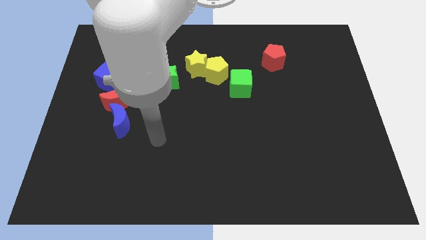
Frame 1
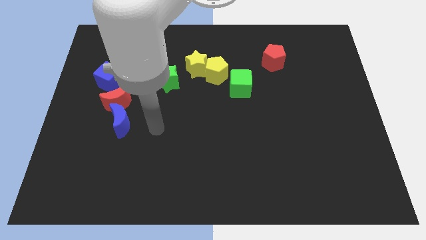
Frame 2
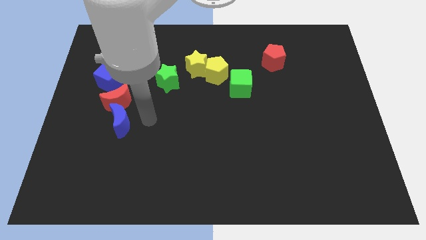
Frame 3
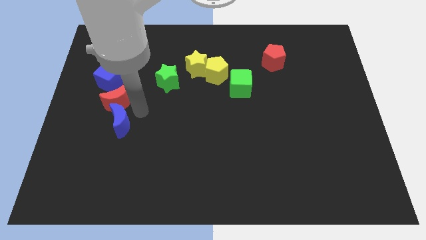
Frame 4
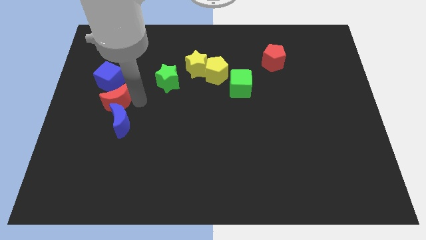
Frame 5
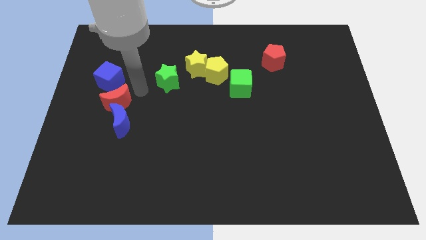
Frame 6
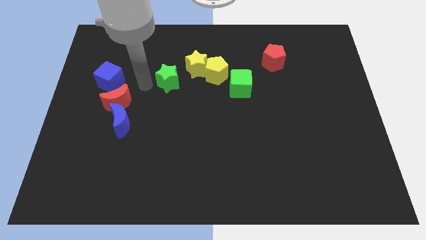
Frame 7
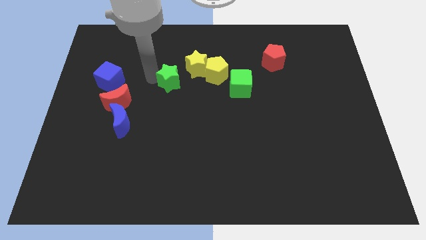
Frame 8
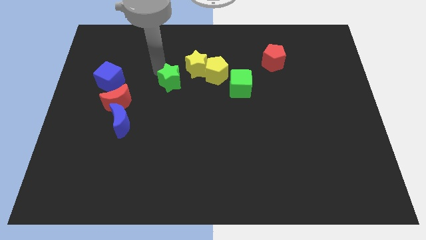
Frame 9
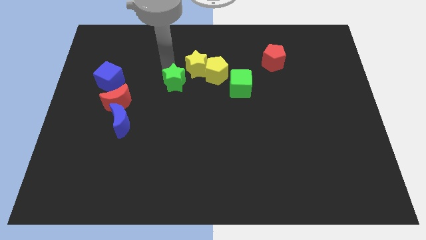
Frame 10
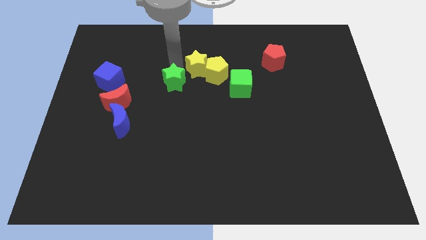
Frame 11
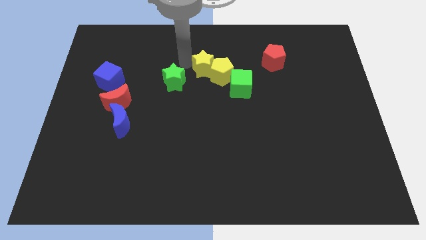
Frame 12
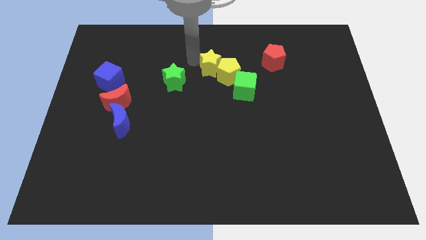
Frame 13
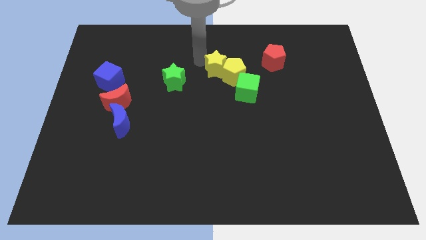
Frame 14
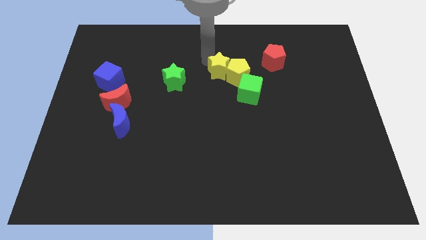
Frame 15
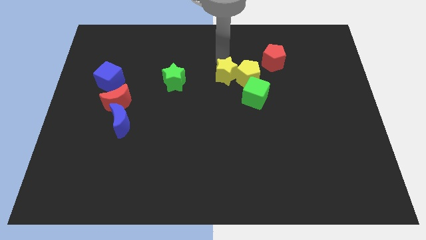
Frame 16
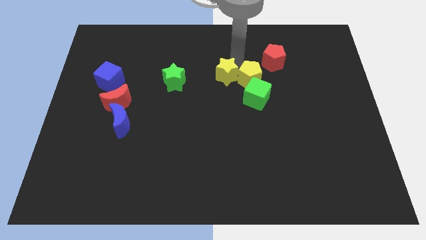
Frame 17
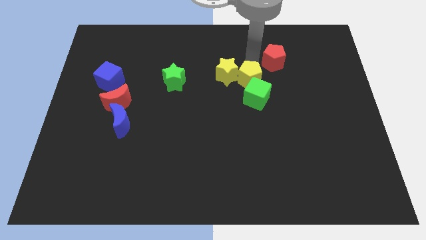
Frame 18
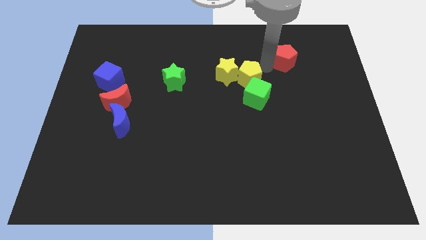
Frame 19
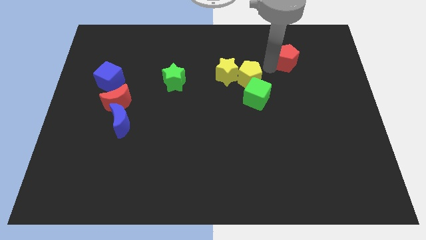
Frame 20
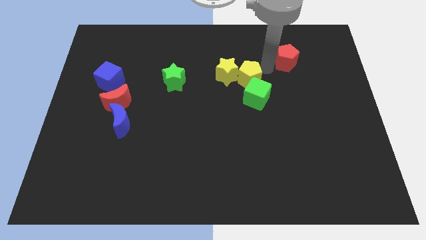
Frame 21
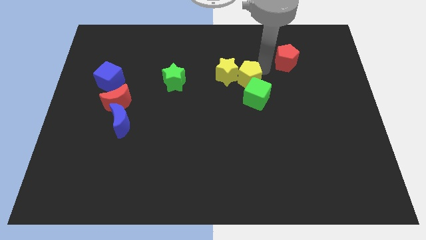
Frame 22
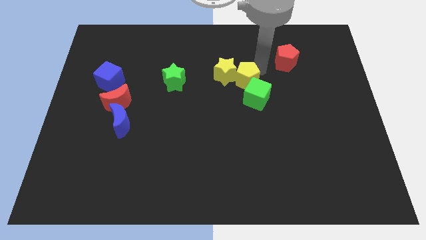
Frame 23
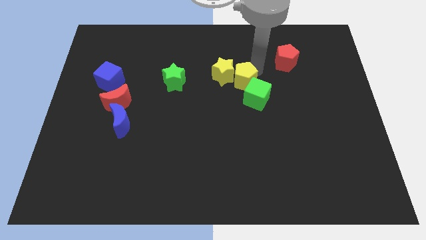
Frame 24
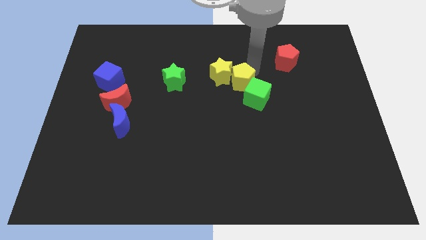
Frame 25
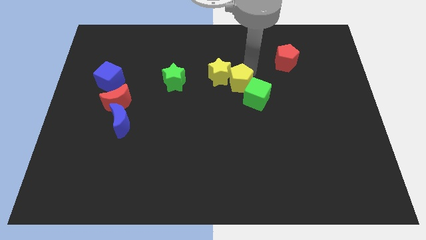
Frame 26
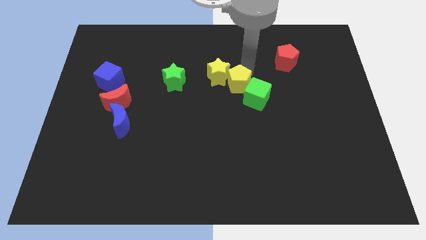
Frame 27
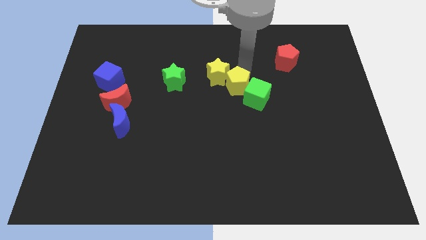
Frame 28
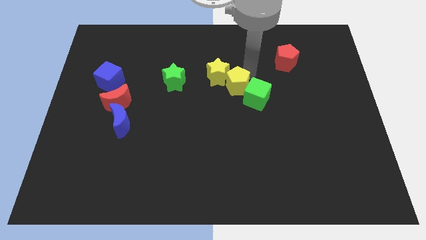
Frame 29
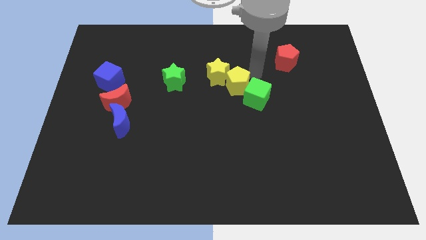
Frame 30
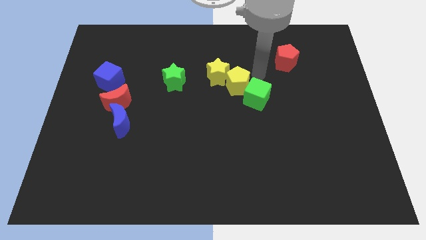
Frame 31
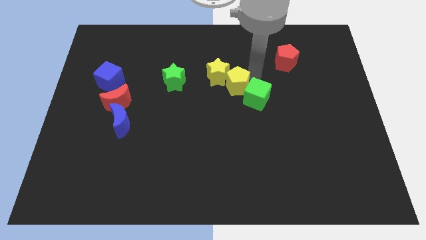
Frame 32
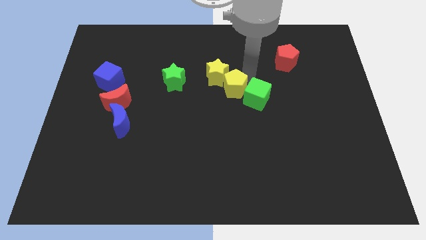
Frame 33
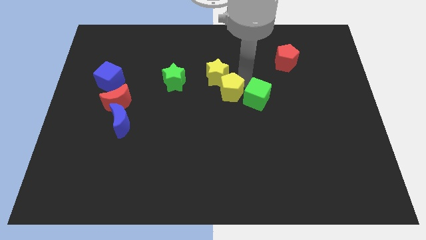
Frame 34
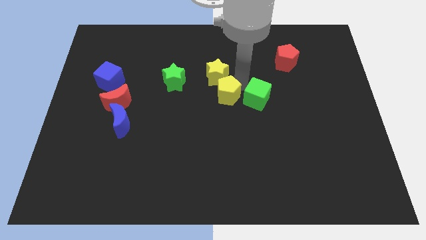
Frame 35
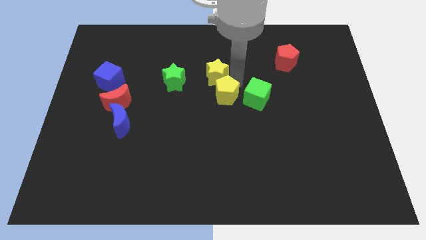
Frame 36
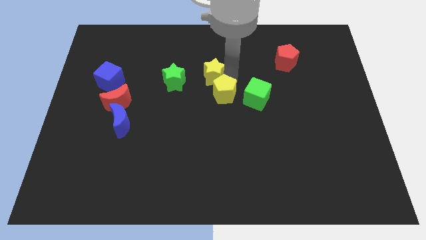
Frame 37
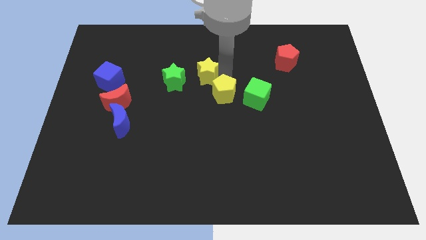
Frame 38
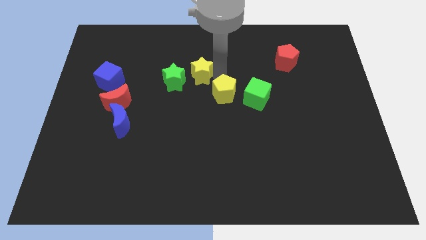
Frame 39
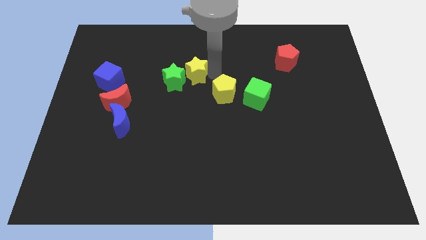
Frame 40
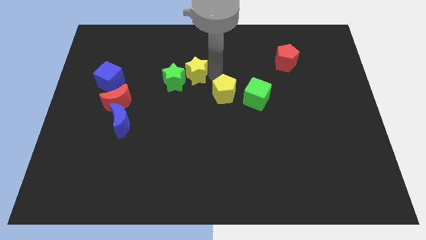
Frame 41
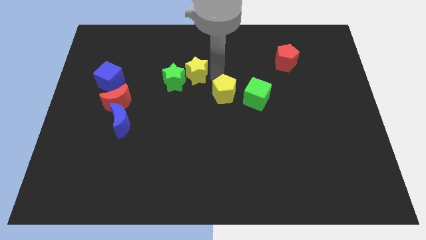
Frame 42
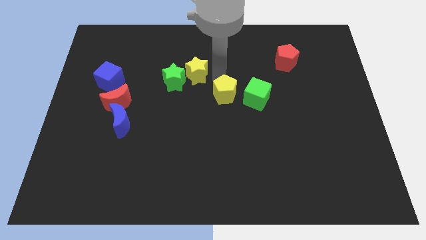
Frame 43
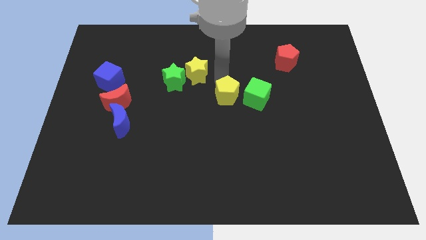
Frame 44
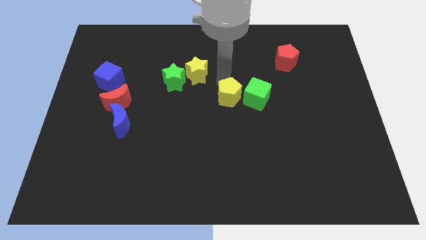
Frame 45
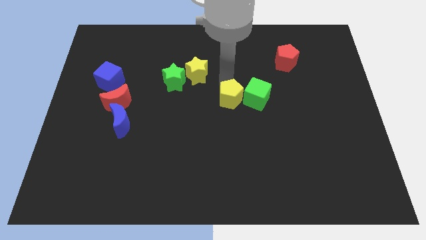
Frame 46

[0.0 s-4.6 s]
move the yellow pentagon diagonally down and to the left of the green cube

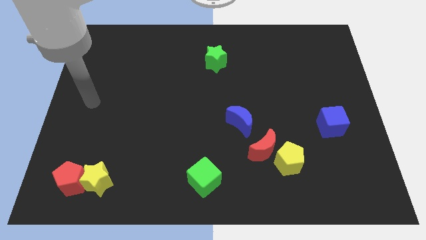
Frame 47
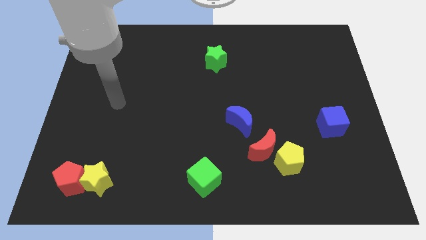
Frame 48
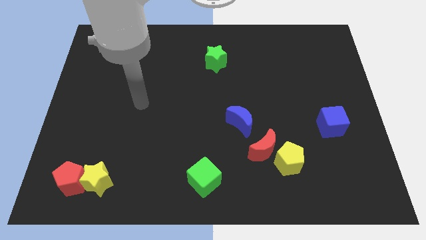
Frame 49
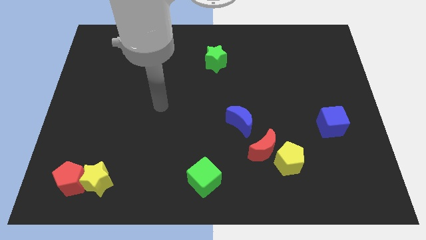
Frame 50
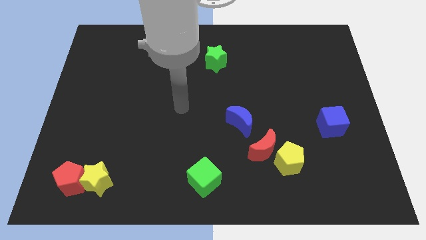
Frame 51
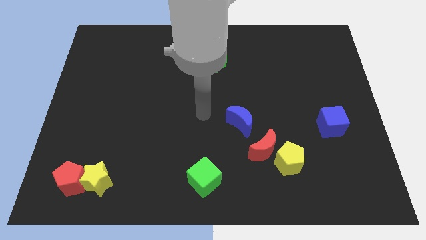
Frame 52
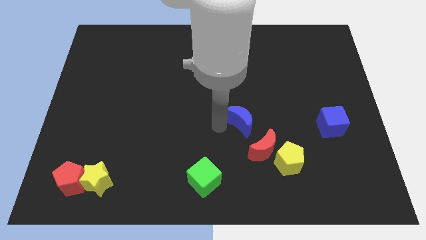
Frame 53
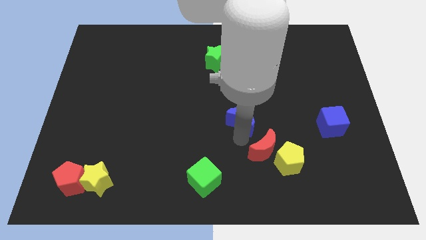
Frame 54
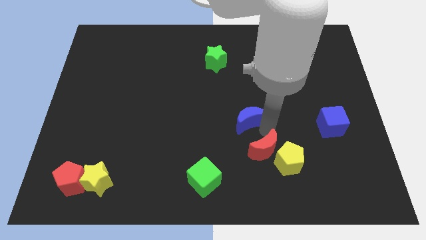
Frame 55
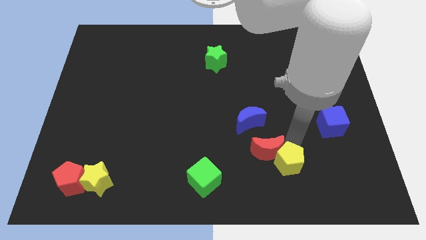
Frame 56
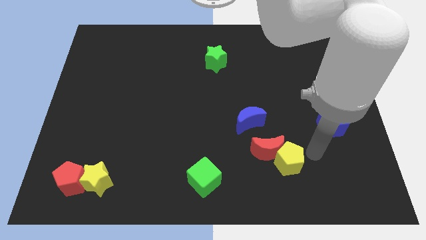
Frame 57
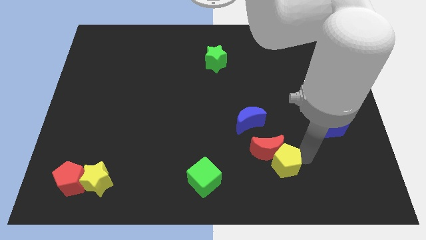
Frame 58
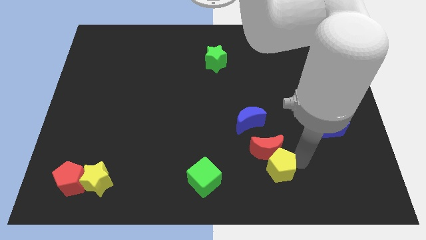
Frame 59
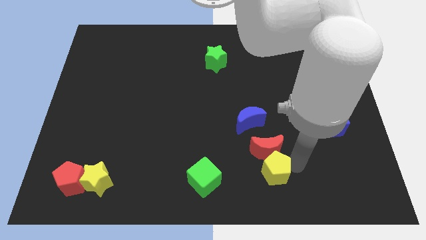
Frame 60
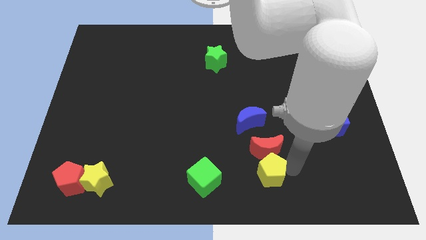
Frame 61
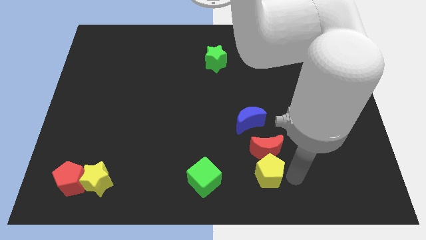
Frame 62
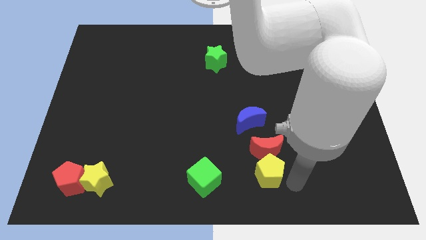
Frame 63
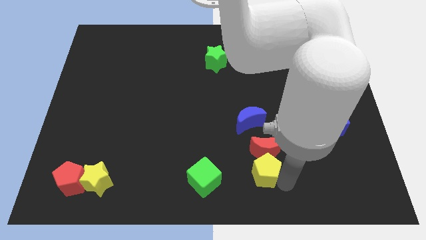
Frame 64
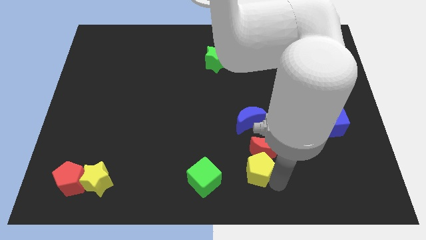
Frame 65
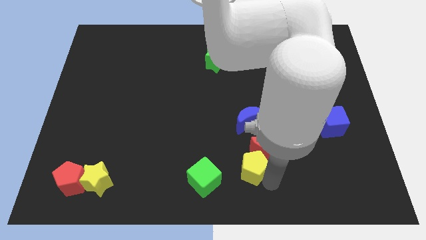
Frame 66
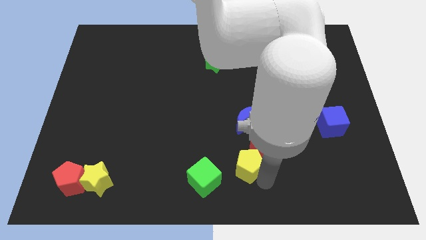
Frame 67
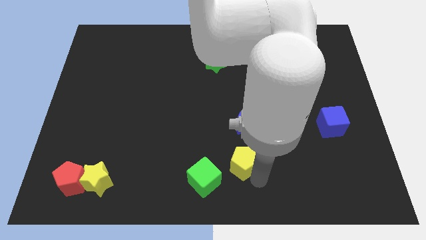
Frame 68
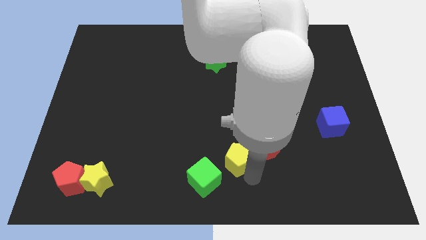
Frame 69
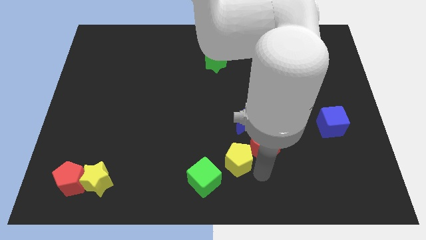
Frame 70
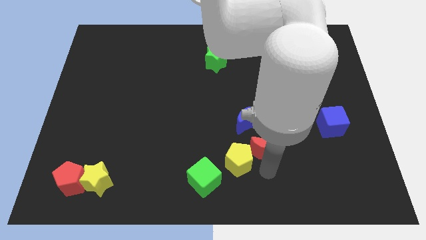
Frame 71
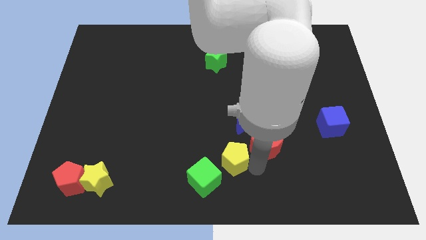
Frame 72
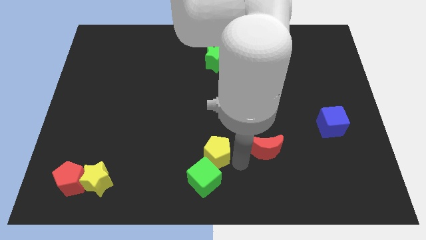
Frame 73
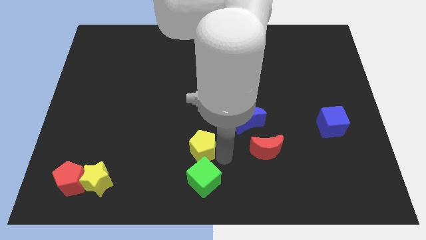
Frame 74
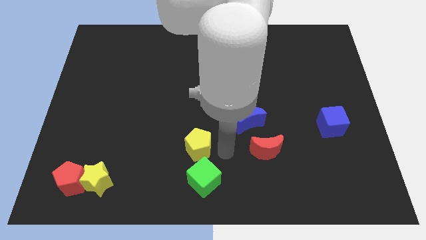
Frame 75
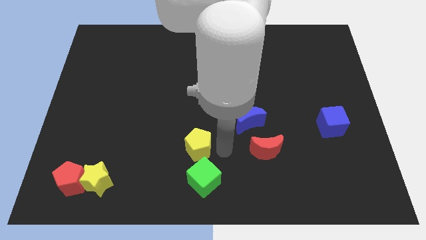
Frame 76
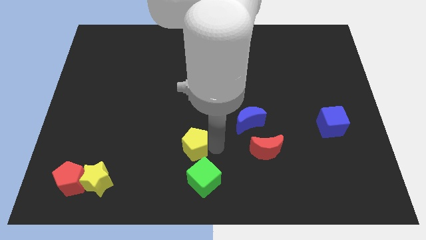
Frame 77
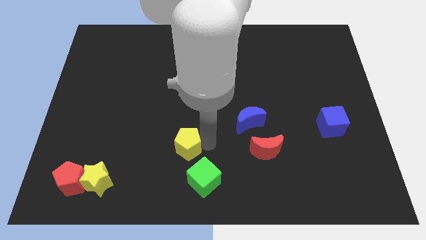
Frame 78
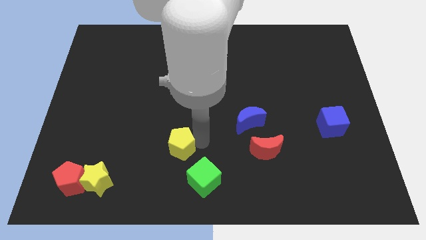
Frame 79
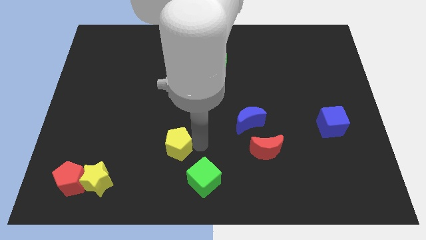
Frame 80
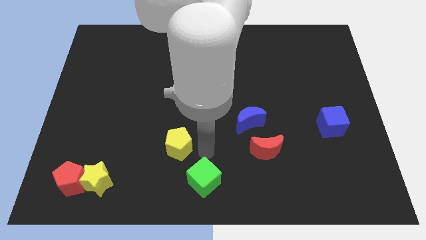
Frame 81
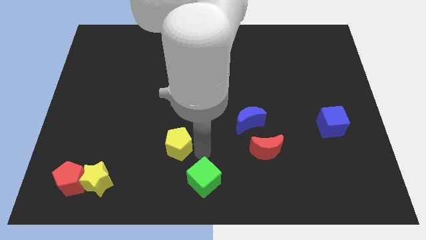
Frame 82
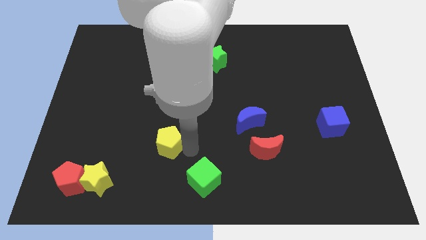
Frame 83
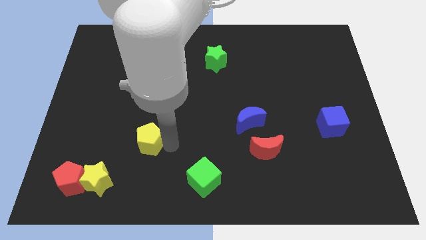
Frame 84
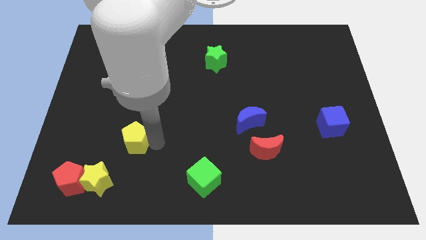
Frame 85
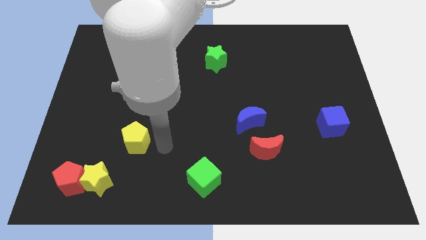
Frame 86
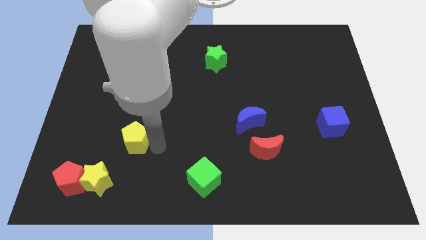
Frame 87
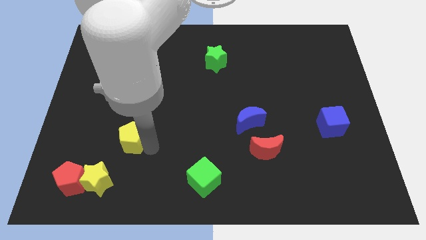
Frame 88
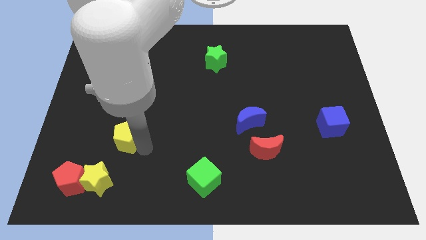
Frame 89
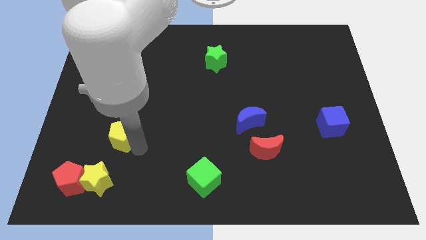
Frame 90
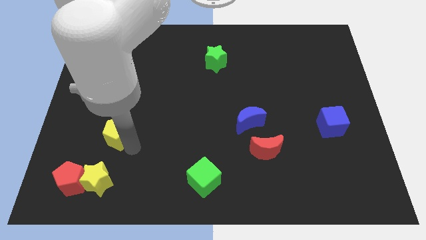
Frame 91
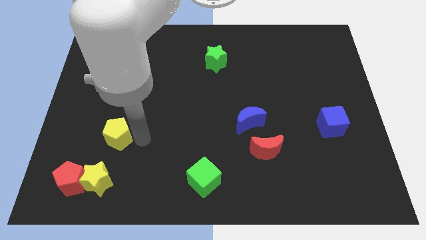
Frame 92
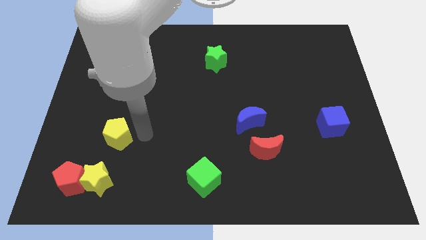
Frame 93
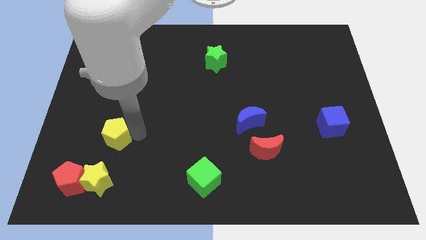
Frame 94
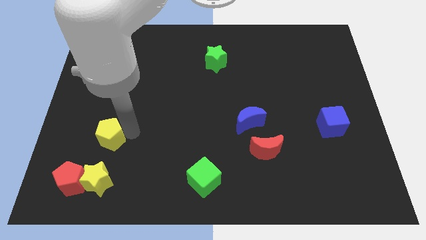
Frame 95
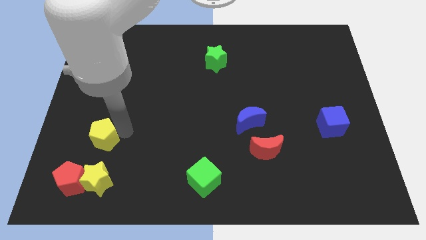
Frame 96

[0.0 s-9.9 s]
put the yellow pentagon to the top side of the red pentagon
